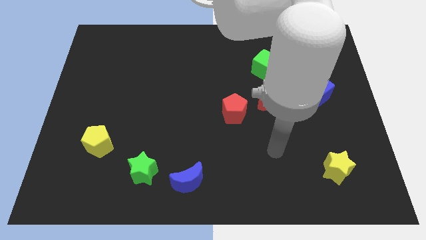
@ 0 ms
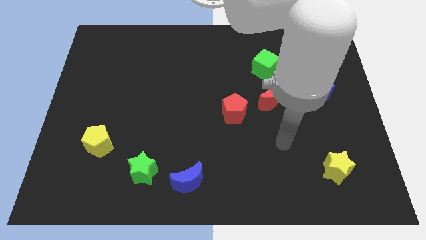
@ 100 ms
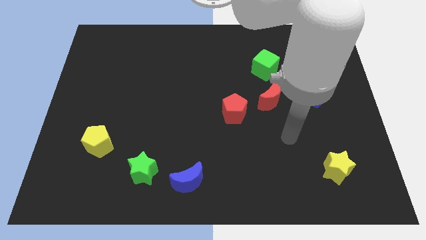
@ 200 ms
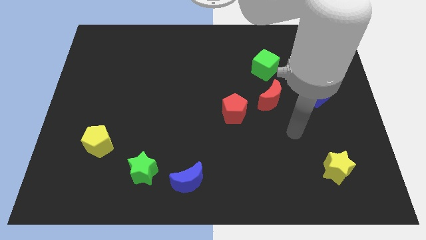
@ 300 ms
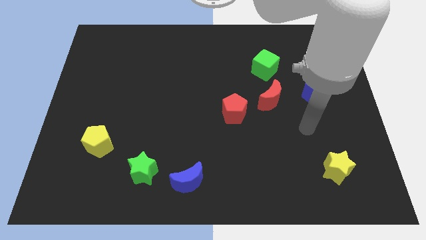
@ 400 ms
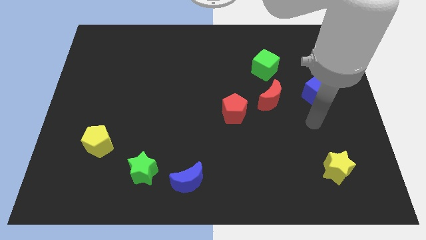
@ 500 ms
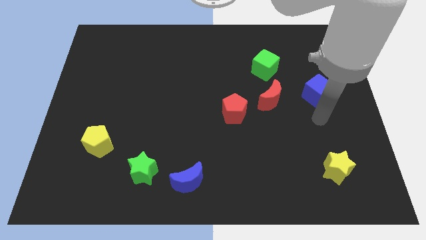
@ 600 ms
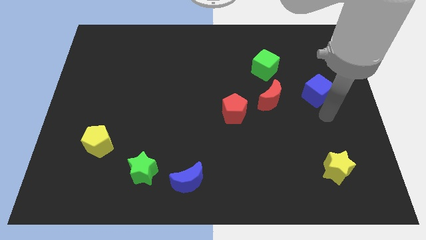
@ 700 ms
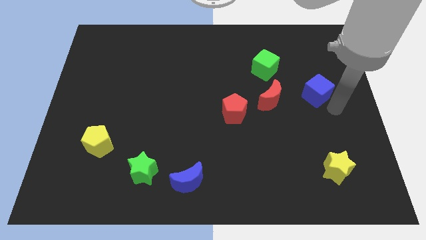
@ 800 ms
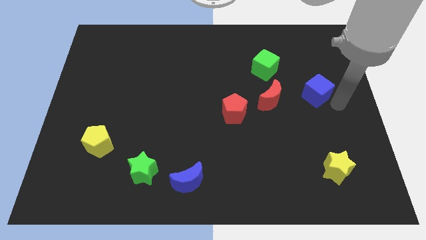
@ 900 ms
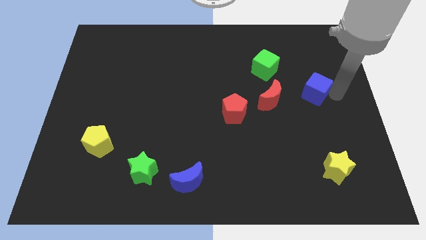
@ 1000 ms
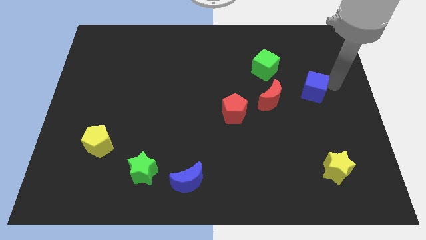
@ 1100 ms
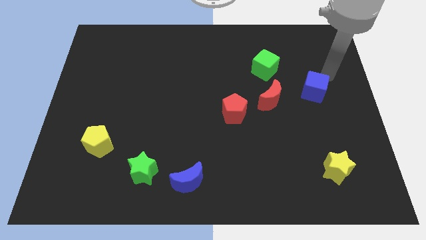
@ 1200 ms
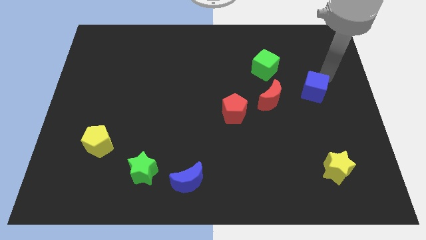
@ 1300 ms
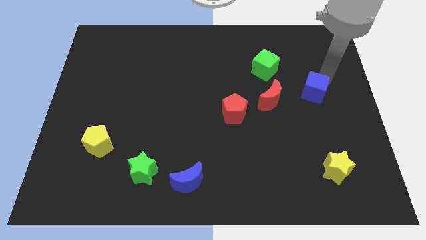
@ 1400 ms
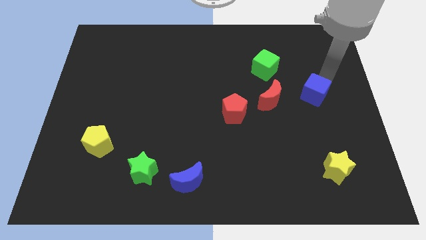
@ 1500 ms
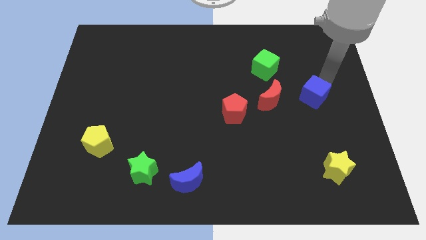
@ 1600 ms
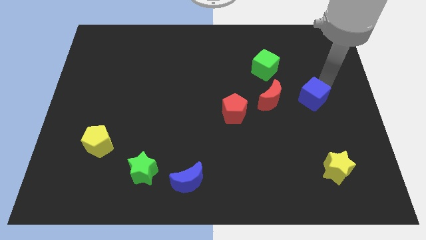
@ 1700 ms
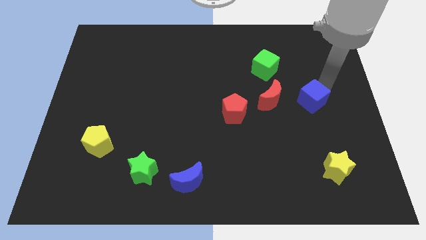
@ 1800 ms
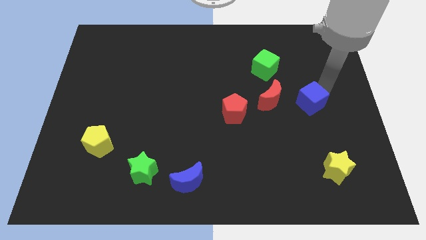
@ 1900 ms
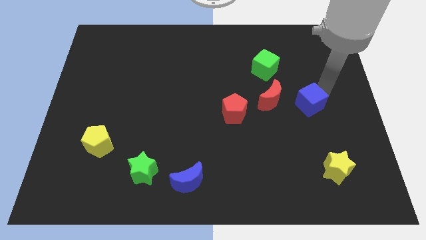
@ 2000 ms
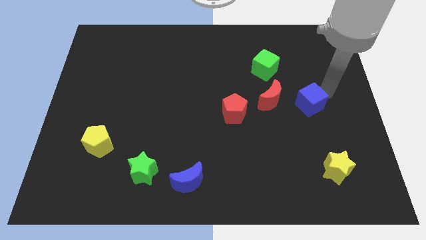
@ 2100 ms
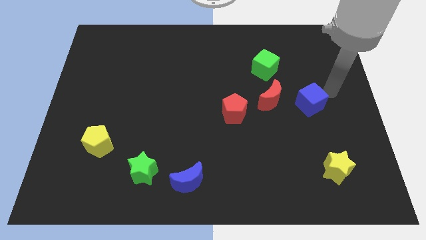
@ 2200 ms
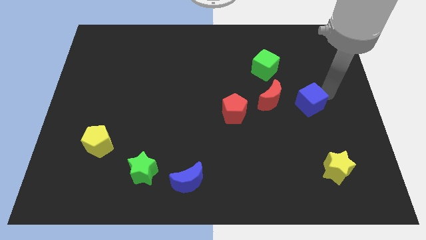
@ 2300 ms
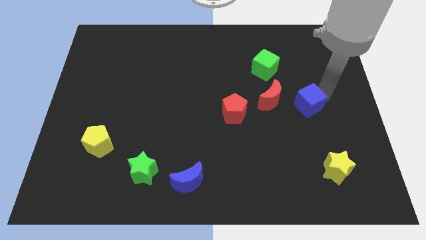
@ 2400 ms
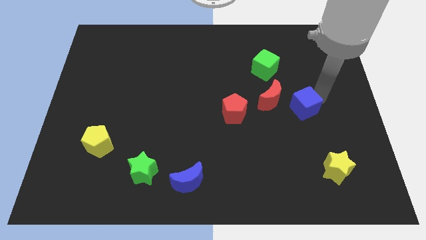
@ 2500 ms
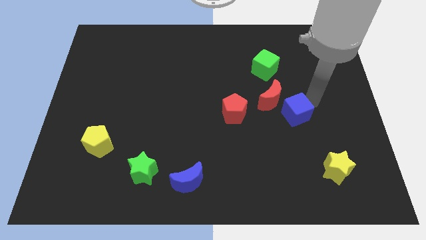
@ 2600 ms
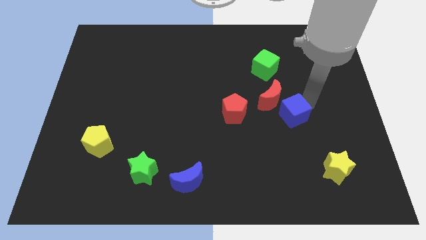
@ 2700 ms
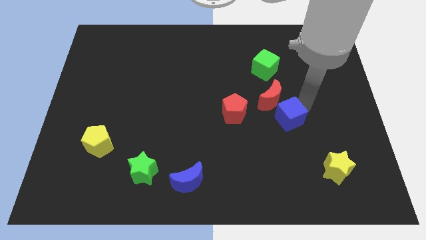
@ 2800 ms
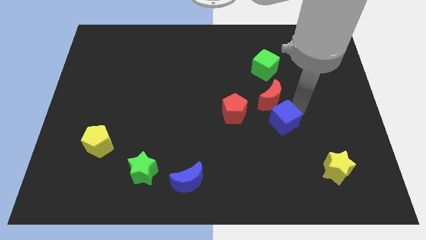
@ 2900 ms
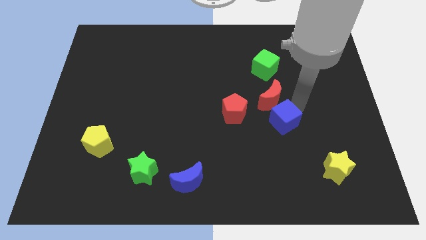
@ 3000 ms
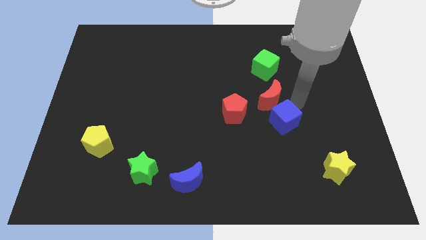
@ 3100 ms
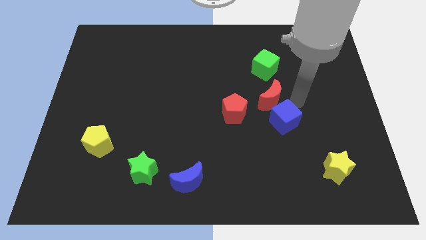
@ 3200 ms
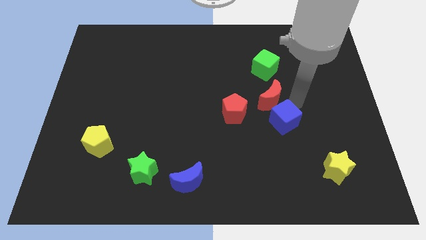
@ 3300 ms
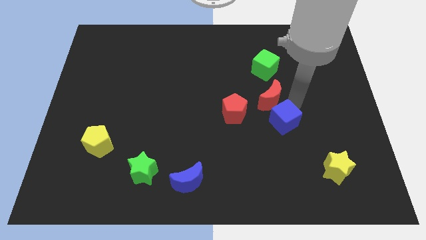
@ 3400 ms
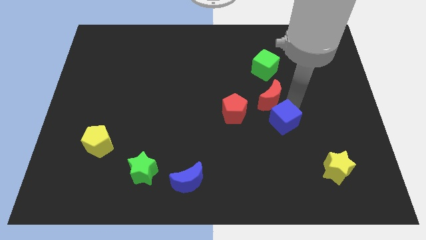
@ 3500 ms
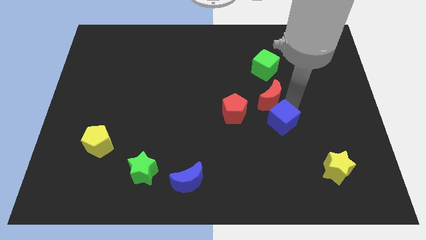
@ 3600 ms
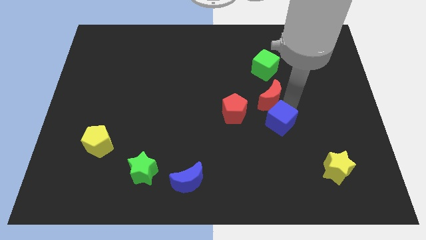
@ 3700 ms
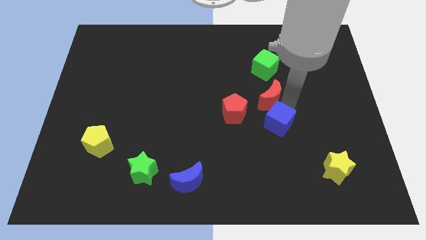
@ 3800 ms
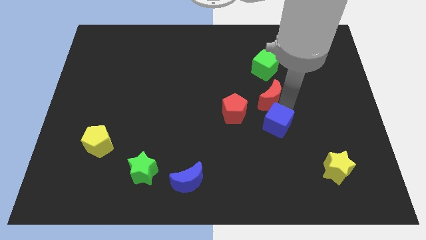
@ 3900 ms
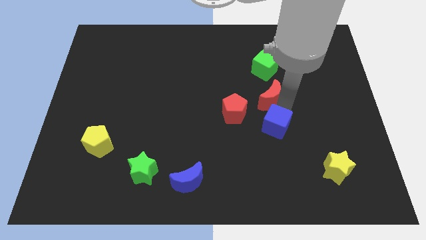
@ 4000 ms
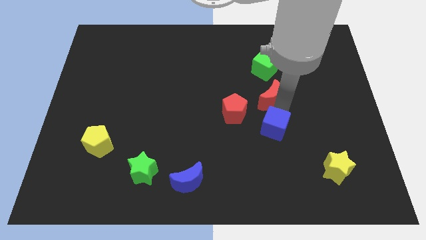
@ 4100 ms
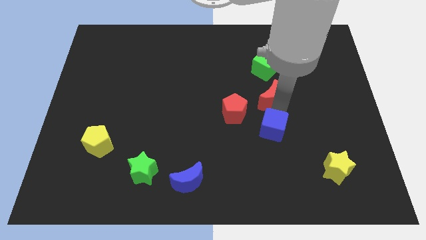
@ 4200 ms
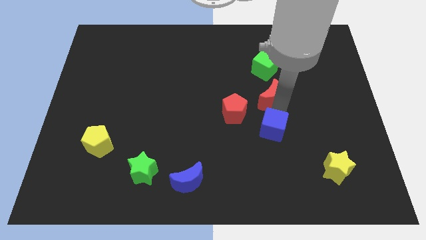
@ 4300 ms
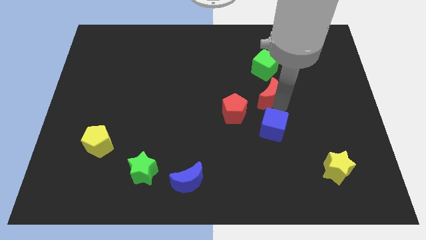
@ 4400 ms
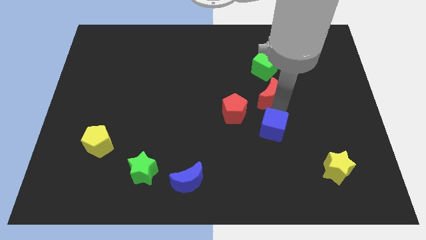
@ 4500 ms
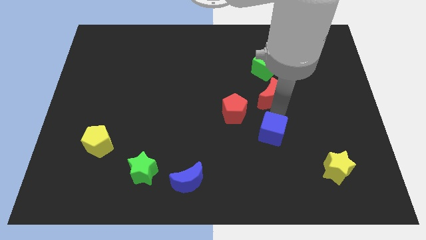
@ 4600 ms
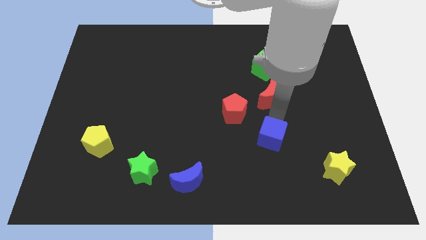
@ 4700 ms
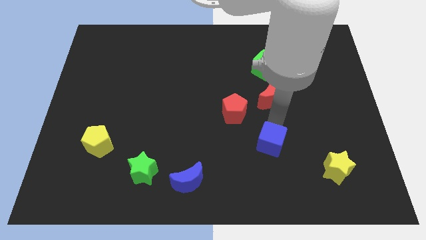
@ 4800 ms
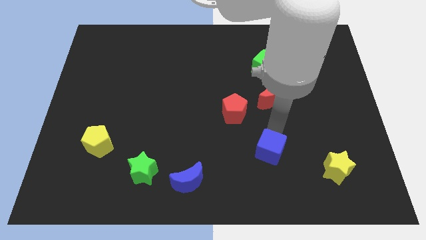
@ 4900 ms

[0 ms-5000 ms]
move the blue cube down and then left

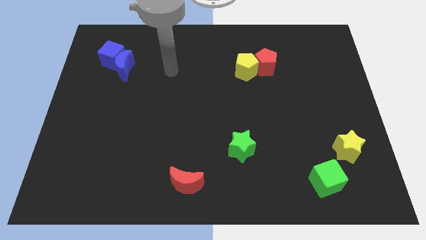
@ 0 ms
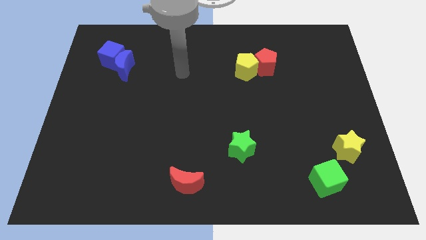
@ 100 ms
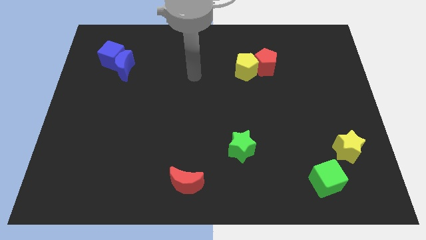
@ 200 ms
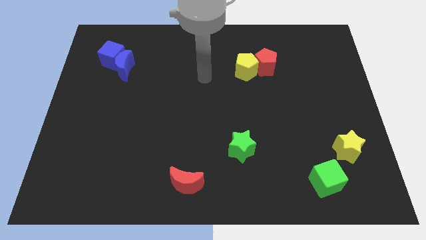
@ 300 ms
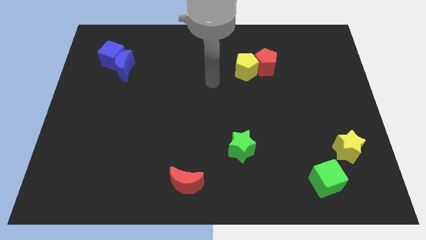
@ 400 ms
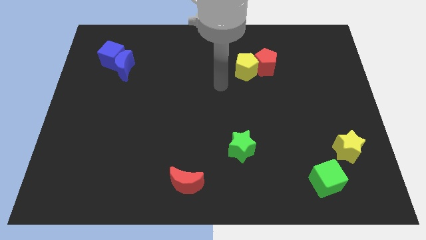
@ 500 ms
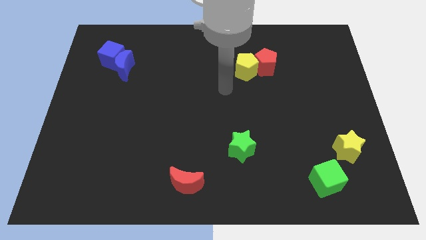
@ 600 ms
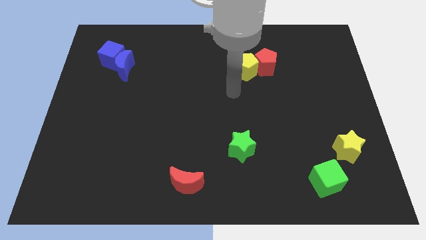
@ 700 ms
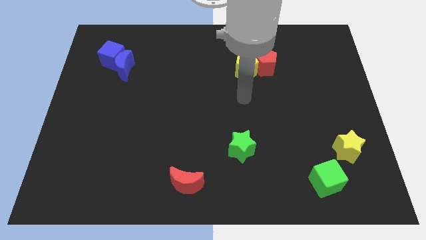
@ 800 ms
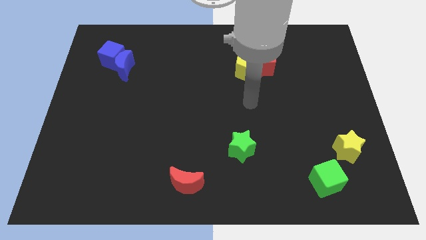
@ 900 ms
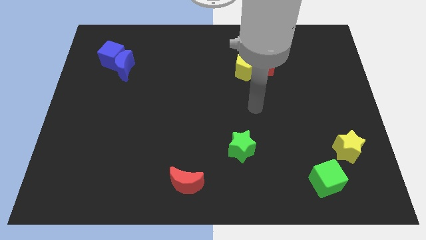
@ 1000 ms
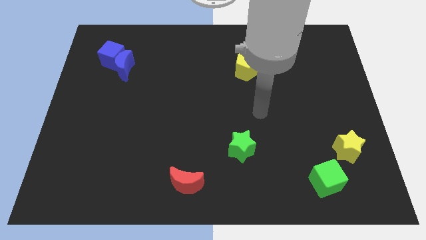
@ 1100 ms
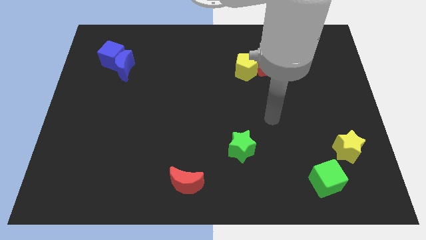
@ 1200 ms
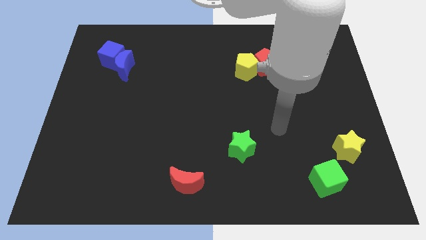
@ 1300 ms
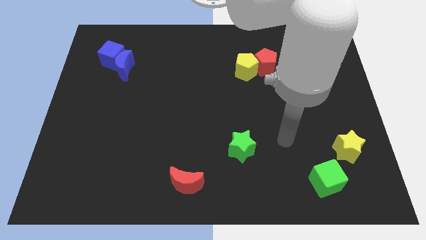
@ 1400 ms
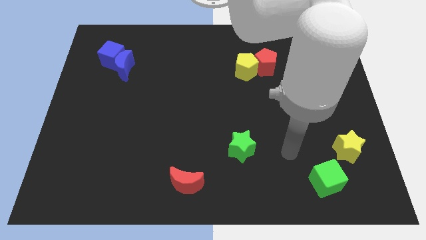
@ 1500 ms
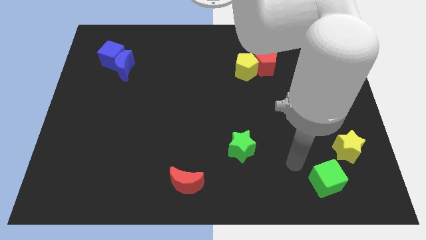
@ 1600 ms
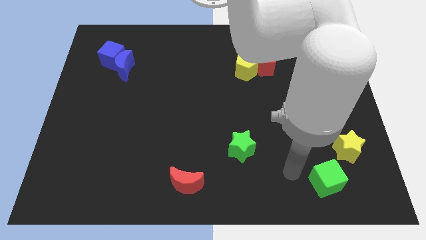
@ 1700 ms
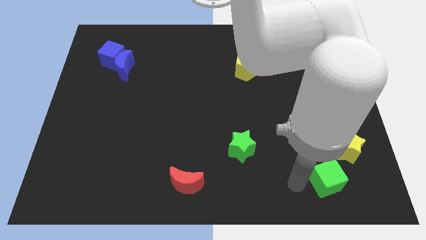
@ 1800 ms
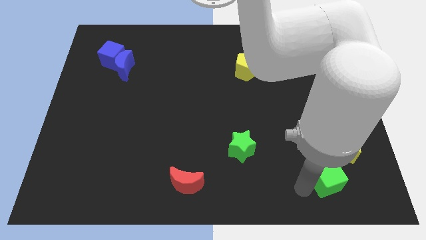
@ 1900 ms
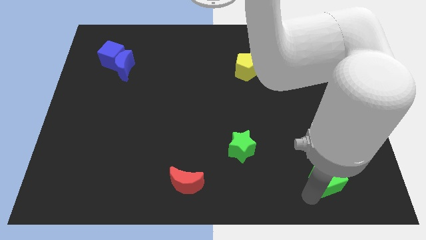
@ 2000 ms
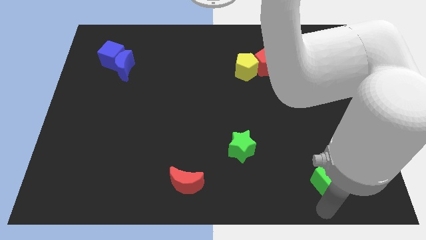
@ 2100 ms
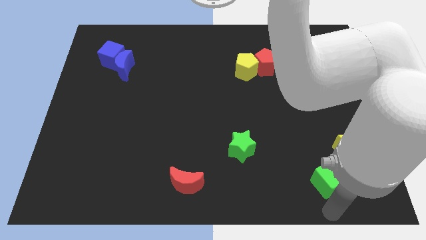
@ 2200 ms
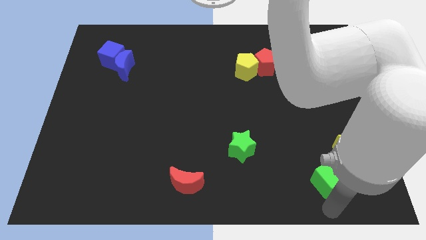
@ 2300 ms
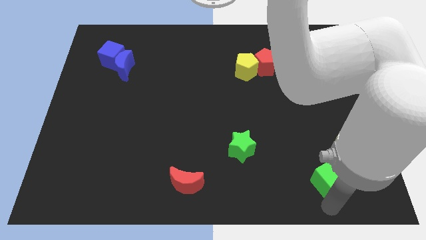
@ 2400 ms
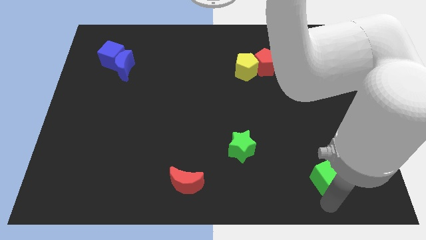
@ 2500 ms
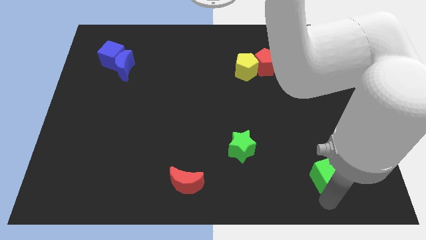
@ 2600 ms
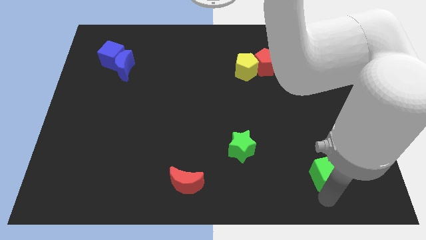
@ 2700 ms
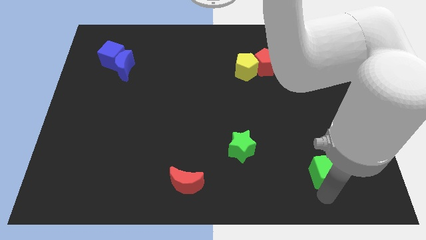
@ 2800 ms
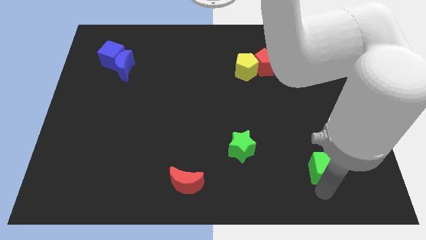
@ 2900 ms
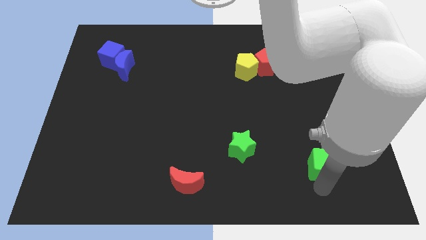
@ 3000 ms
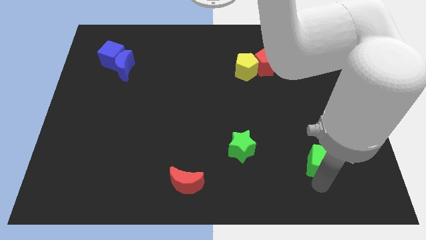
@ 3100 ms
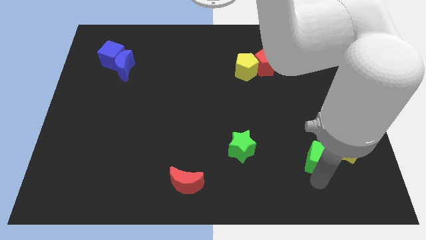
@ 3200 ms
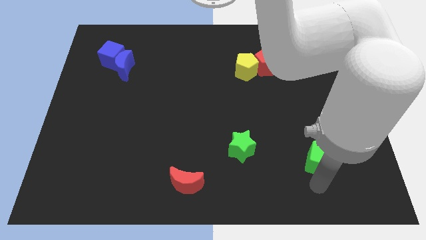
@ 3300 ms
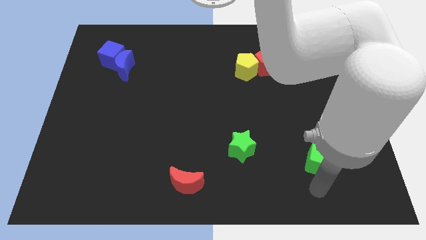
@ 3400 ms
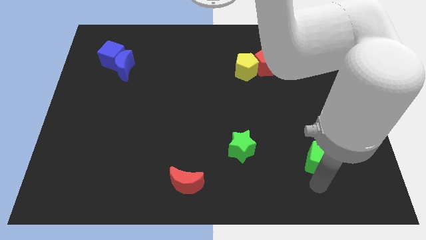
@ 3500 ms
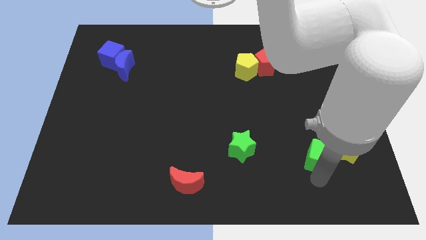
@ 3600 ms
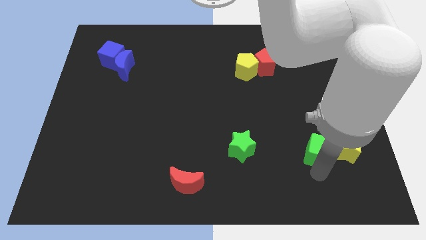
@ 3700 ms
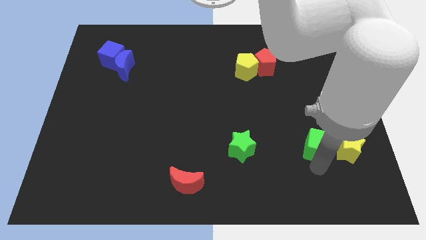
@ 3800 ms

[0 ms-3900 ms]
slightly push the green cube up
